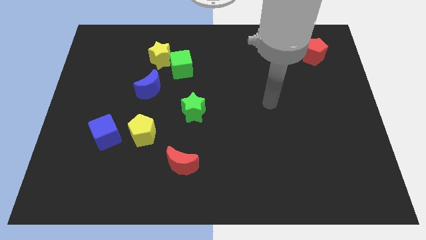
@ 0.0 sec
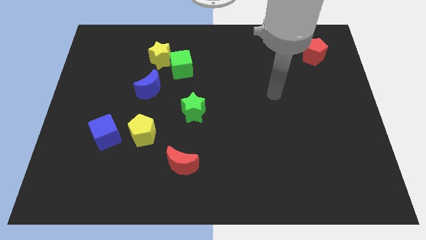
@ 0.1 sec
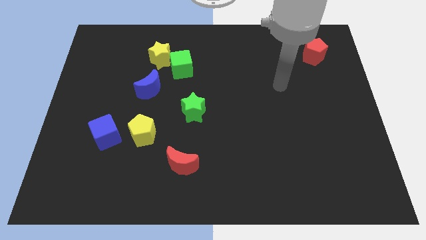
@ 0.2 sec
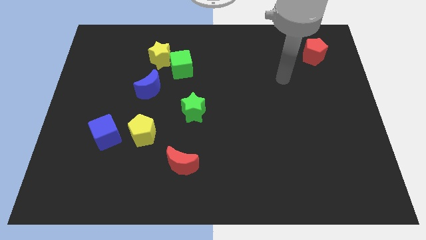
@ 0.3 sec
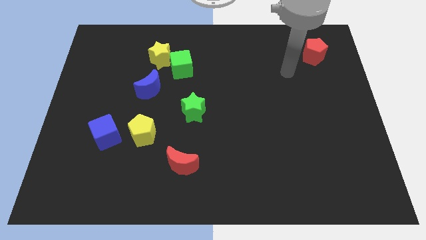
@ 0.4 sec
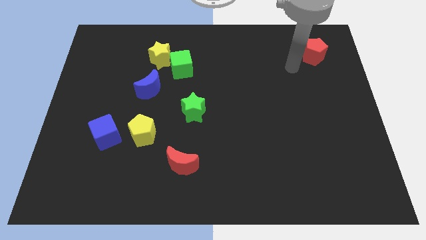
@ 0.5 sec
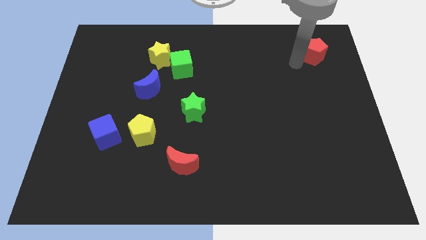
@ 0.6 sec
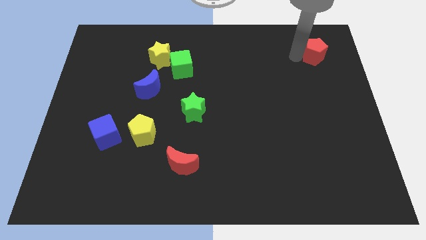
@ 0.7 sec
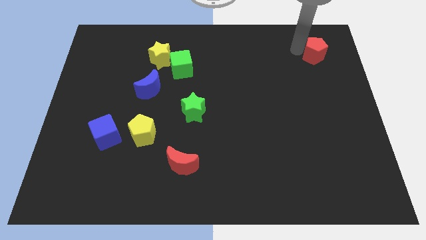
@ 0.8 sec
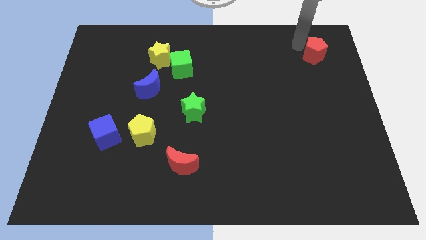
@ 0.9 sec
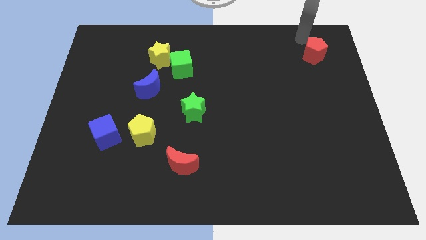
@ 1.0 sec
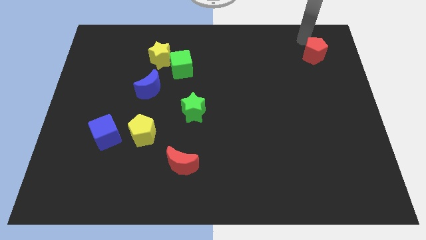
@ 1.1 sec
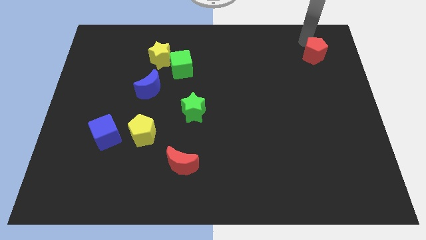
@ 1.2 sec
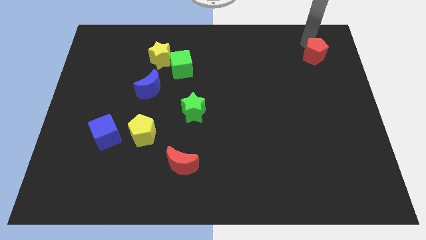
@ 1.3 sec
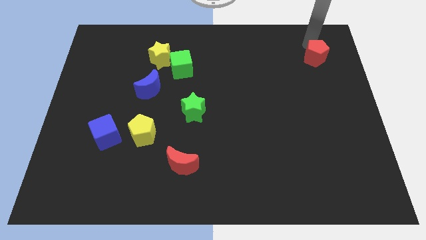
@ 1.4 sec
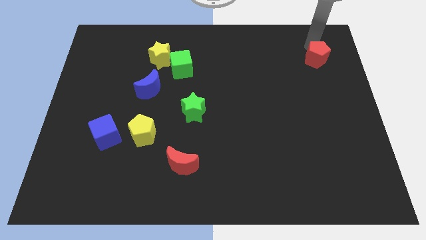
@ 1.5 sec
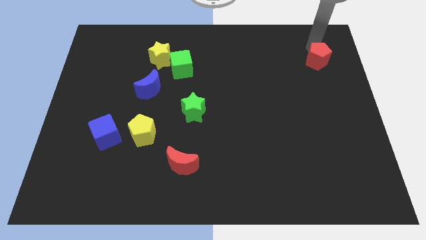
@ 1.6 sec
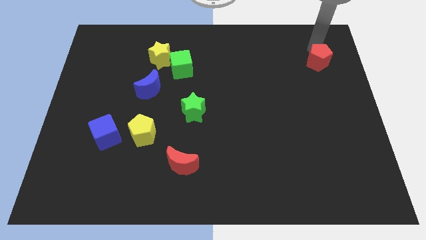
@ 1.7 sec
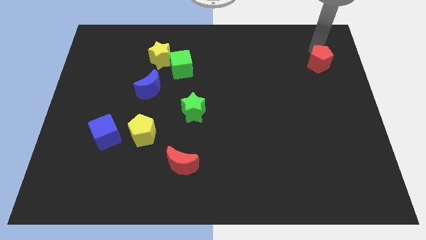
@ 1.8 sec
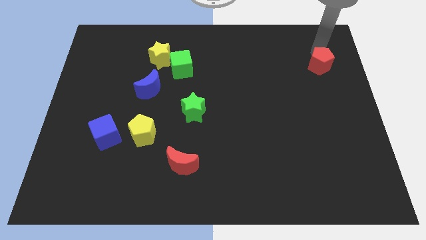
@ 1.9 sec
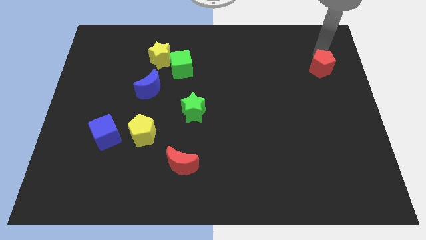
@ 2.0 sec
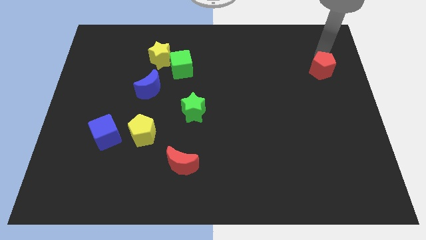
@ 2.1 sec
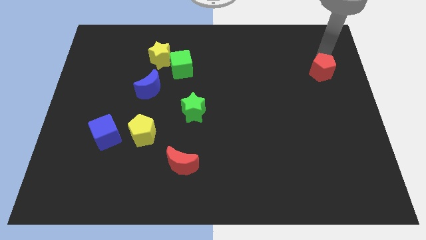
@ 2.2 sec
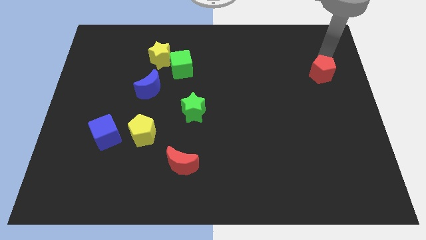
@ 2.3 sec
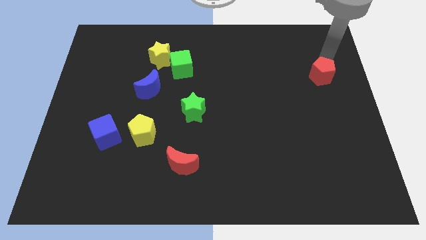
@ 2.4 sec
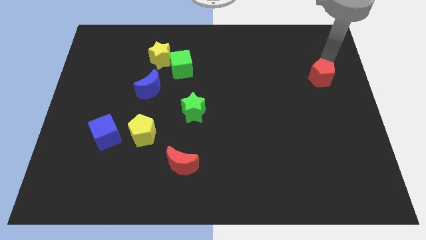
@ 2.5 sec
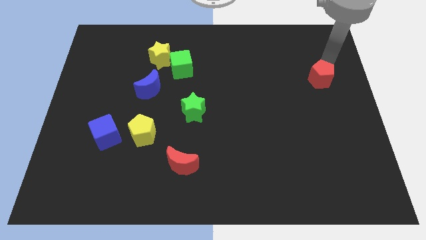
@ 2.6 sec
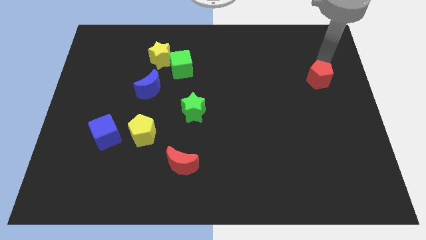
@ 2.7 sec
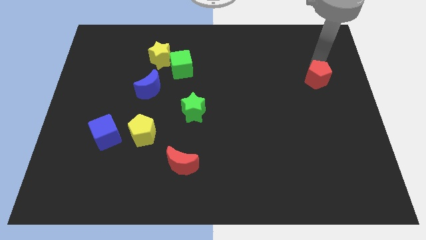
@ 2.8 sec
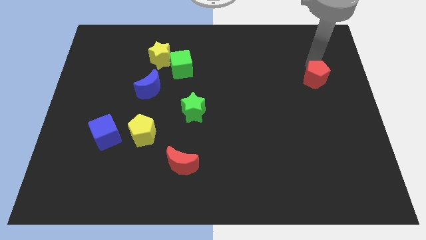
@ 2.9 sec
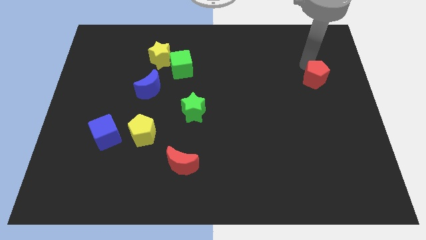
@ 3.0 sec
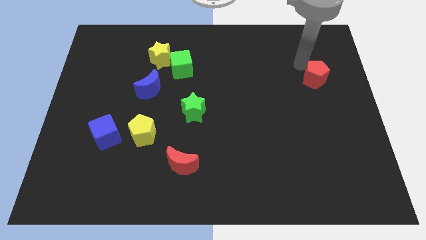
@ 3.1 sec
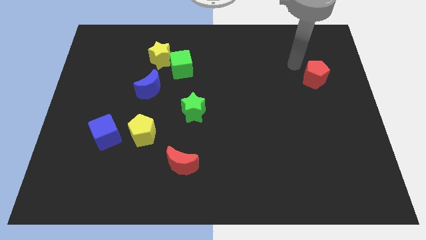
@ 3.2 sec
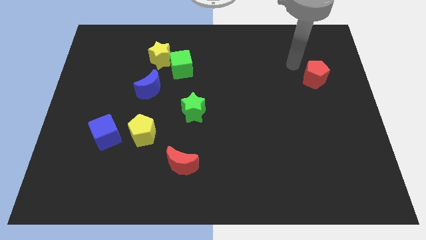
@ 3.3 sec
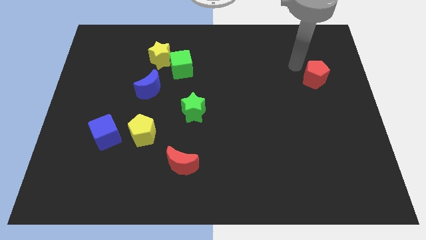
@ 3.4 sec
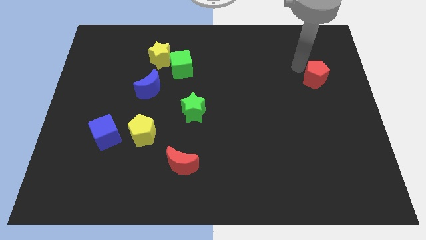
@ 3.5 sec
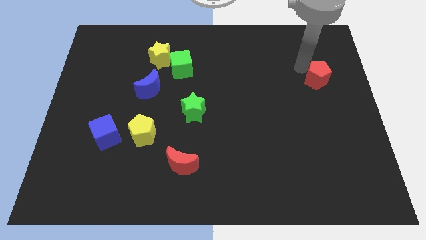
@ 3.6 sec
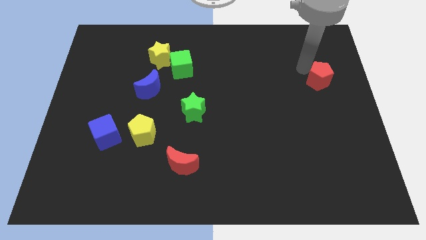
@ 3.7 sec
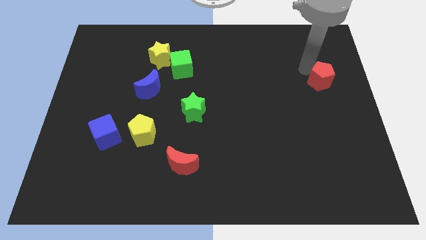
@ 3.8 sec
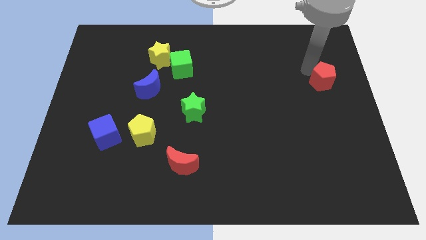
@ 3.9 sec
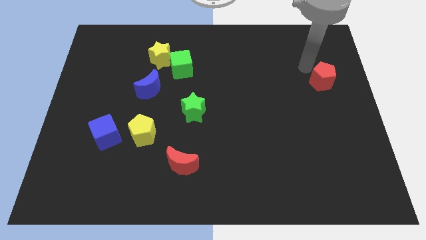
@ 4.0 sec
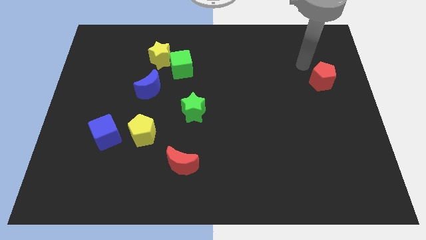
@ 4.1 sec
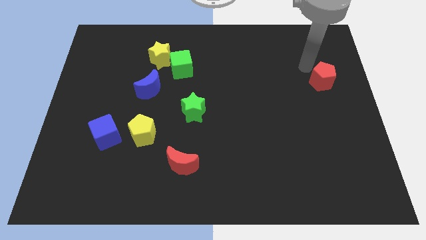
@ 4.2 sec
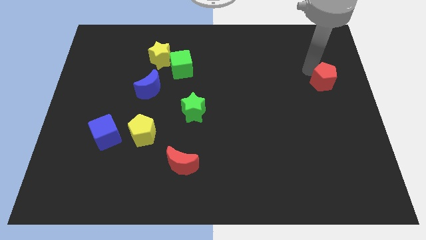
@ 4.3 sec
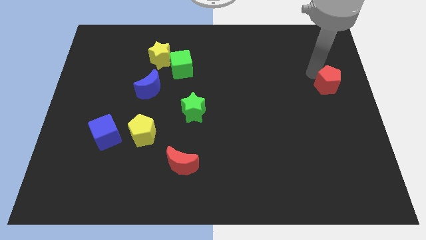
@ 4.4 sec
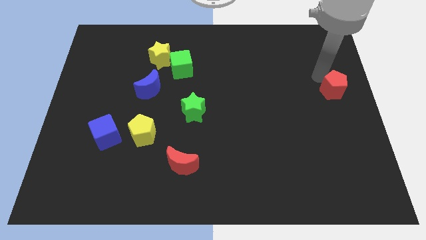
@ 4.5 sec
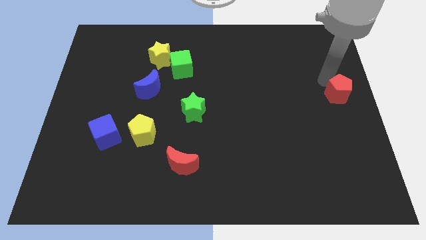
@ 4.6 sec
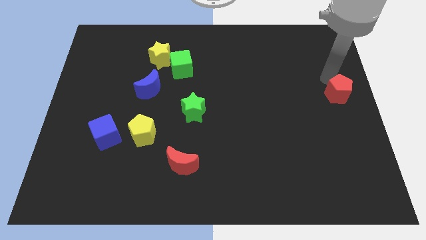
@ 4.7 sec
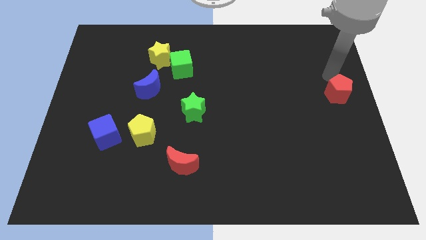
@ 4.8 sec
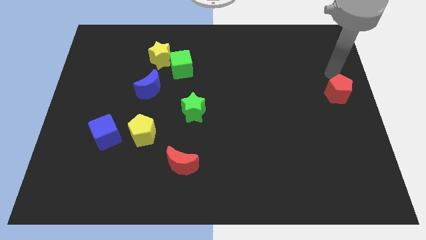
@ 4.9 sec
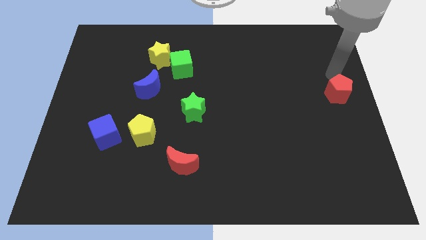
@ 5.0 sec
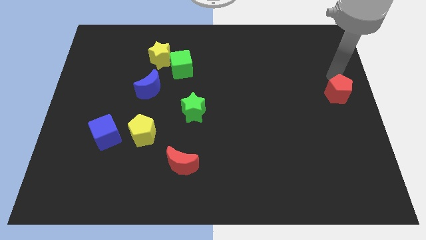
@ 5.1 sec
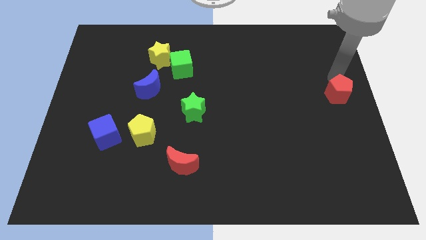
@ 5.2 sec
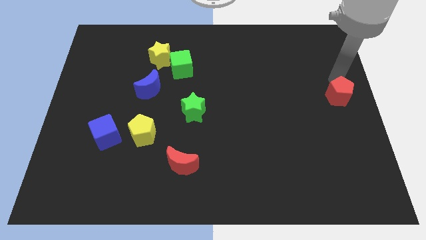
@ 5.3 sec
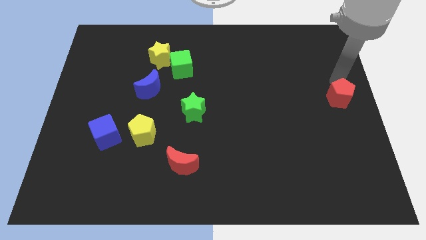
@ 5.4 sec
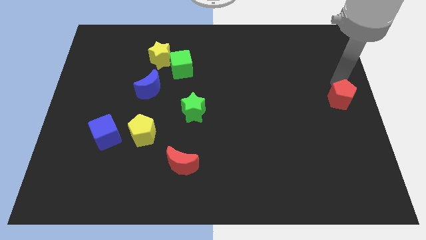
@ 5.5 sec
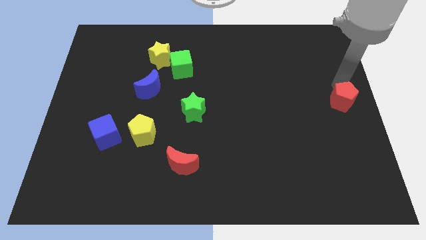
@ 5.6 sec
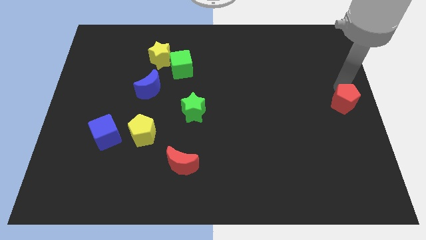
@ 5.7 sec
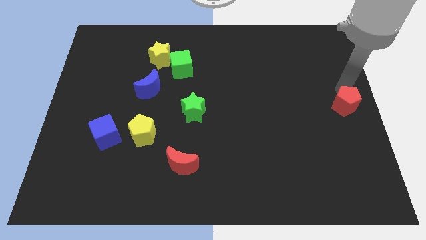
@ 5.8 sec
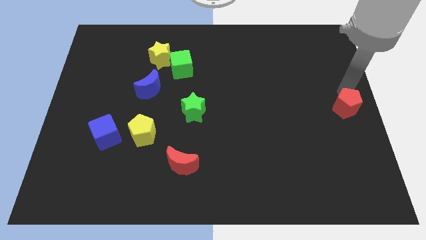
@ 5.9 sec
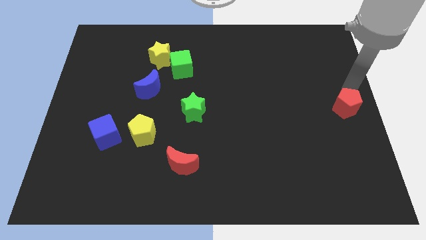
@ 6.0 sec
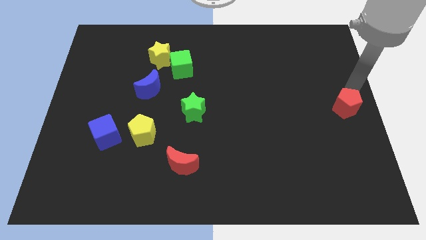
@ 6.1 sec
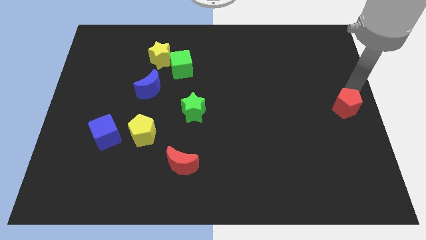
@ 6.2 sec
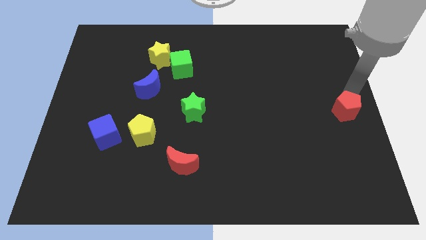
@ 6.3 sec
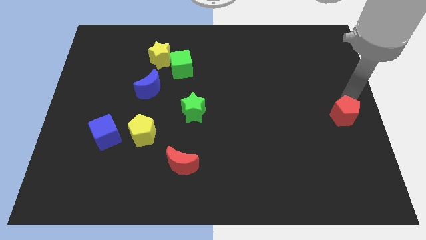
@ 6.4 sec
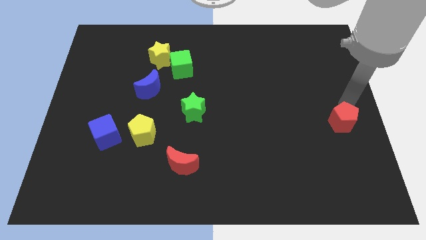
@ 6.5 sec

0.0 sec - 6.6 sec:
push the red pentagon down

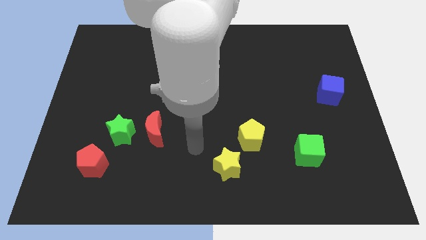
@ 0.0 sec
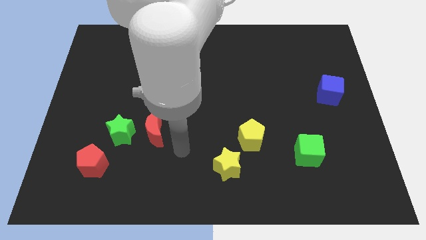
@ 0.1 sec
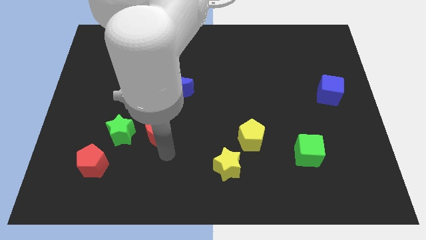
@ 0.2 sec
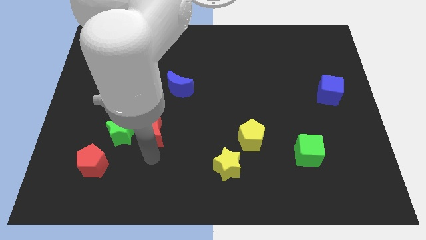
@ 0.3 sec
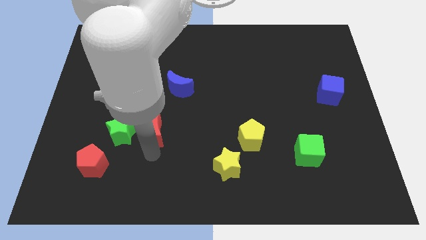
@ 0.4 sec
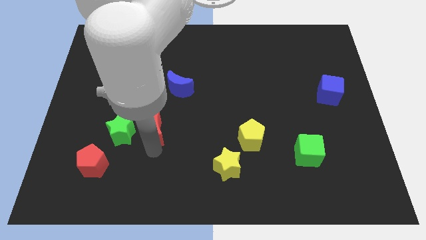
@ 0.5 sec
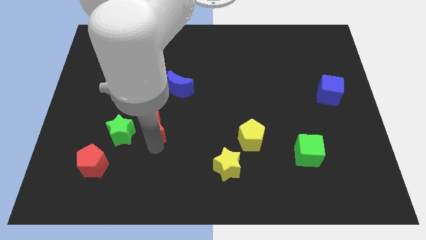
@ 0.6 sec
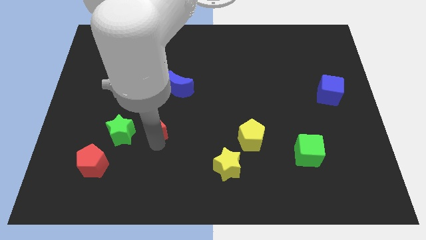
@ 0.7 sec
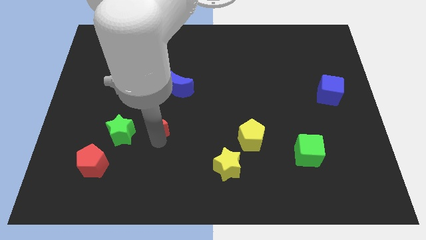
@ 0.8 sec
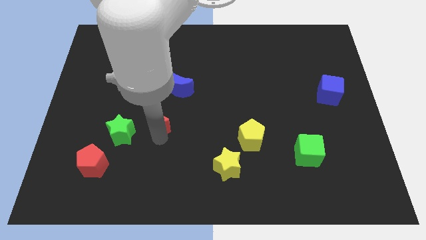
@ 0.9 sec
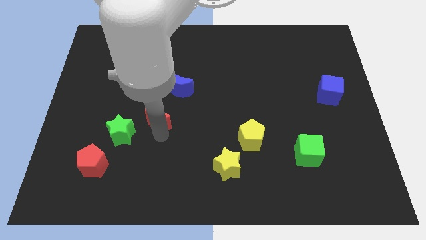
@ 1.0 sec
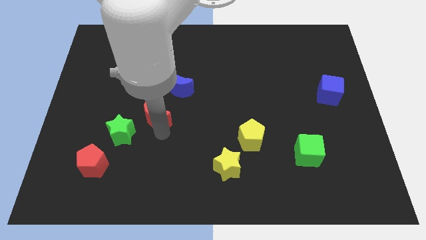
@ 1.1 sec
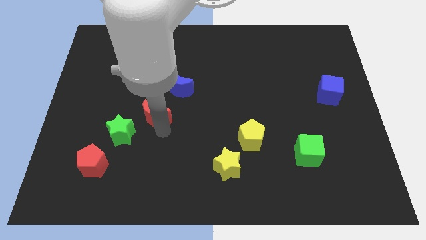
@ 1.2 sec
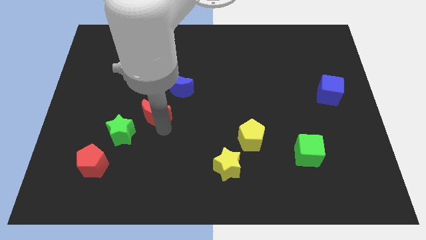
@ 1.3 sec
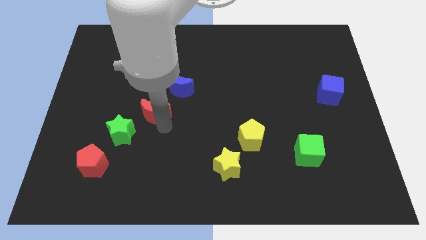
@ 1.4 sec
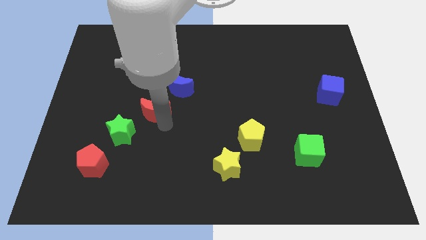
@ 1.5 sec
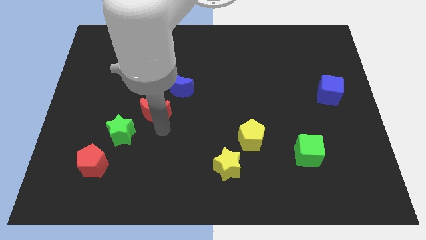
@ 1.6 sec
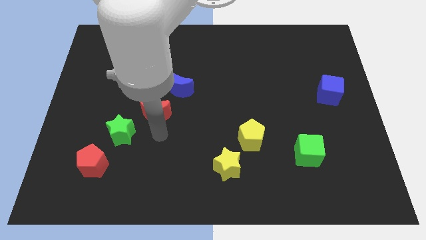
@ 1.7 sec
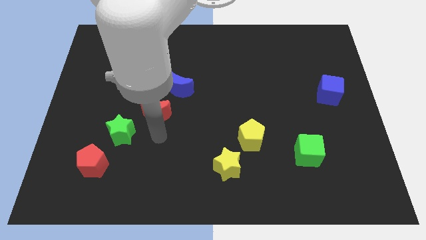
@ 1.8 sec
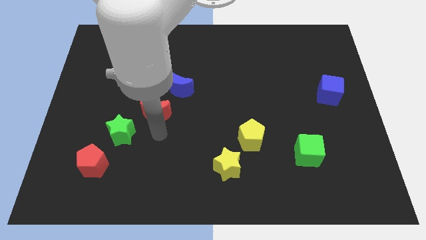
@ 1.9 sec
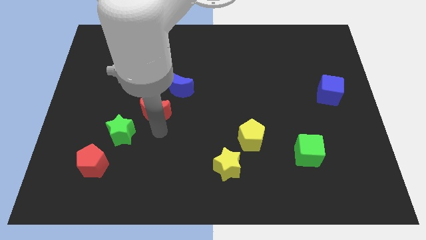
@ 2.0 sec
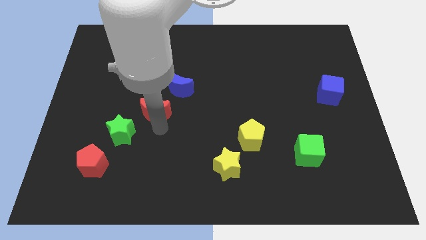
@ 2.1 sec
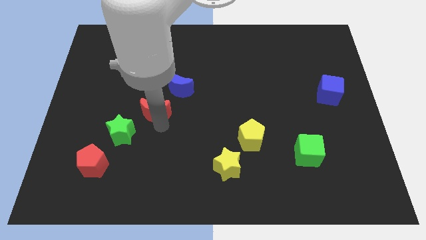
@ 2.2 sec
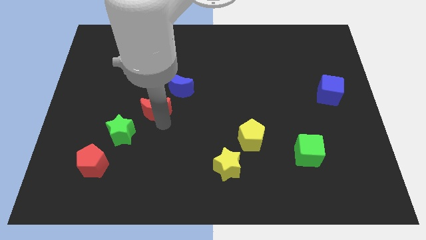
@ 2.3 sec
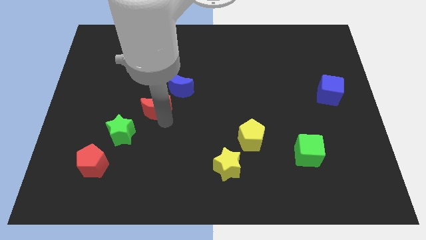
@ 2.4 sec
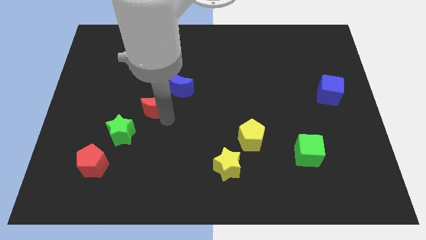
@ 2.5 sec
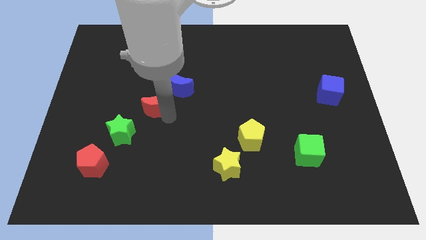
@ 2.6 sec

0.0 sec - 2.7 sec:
slide the red moon slightly up
